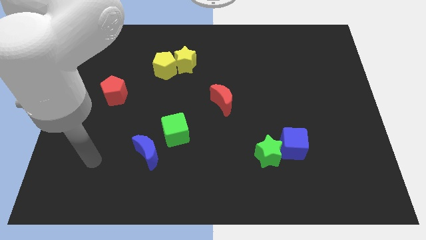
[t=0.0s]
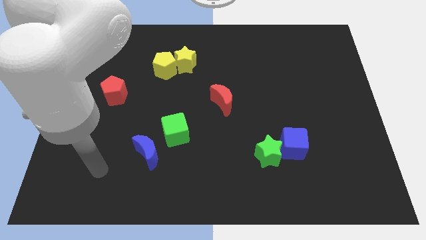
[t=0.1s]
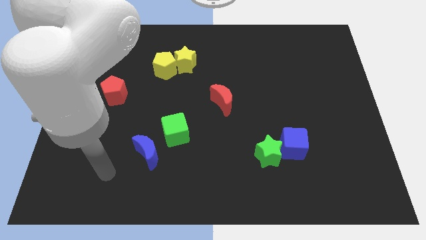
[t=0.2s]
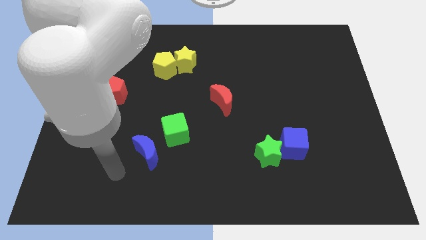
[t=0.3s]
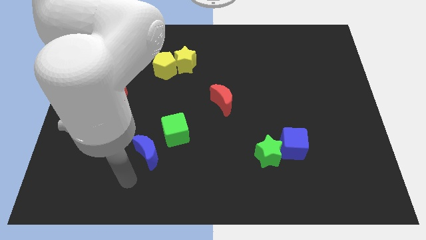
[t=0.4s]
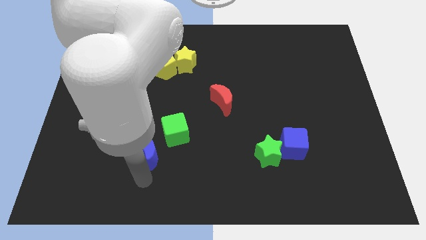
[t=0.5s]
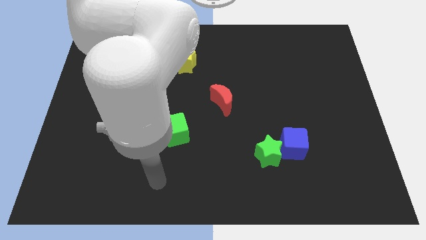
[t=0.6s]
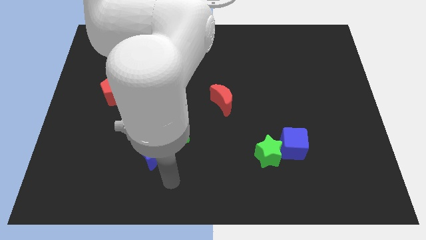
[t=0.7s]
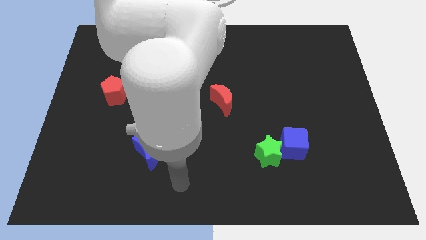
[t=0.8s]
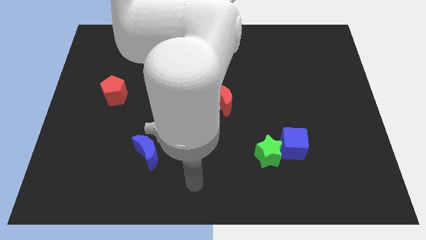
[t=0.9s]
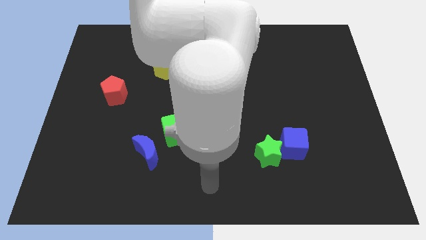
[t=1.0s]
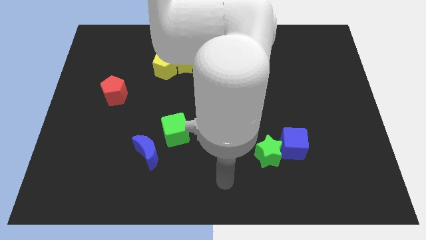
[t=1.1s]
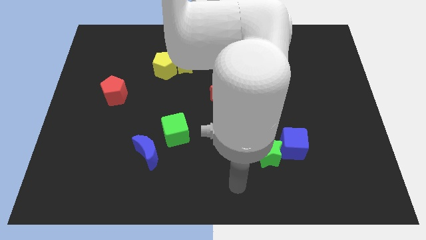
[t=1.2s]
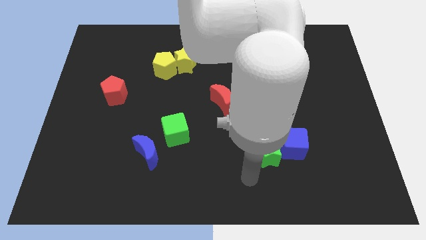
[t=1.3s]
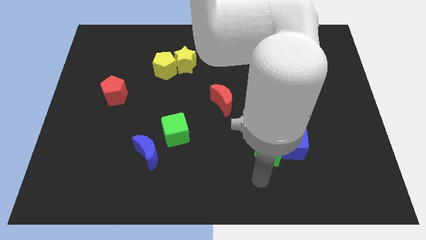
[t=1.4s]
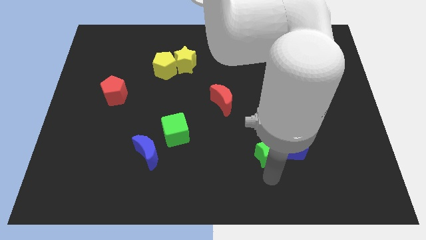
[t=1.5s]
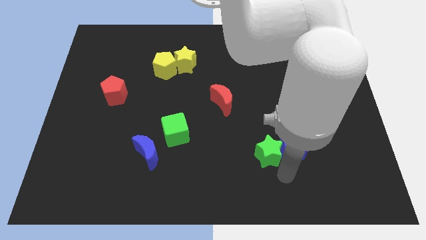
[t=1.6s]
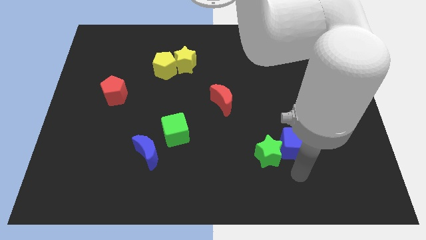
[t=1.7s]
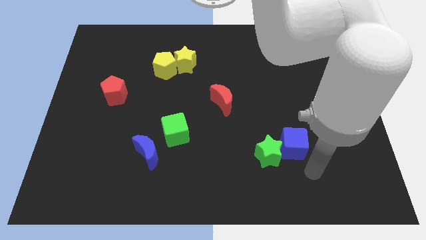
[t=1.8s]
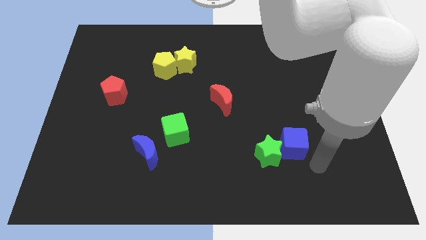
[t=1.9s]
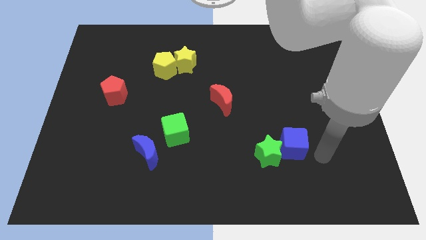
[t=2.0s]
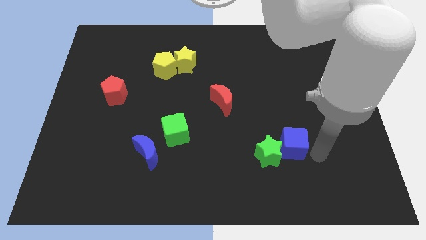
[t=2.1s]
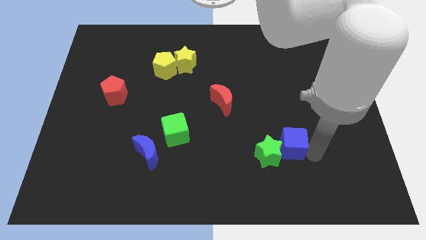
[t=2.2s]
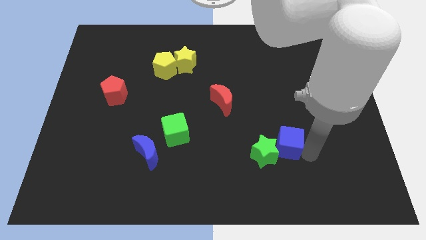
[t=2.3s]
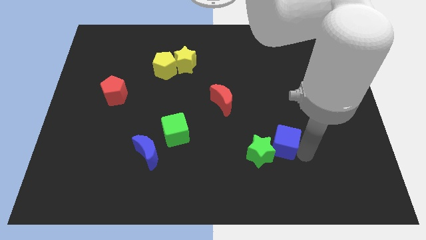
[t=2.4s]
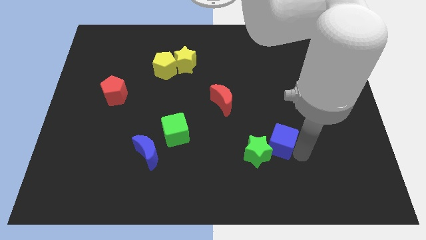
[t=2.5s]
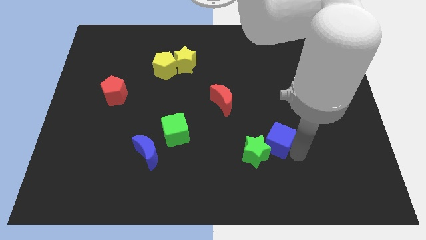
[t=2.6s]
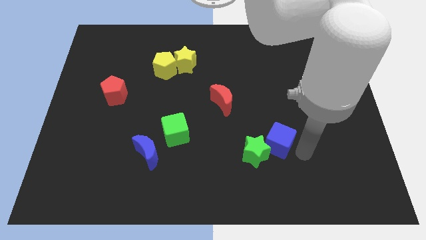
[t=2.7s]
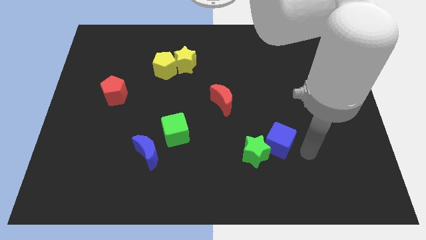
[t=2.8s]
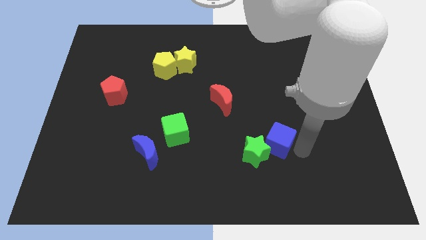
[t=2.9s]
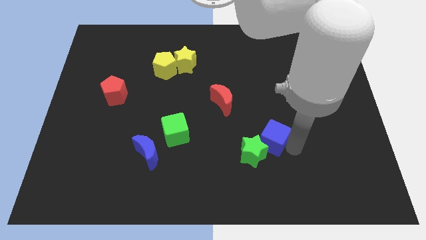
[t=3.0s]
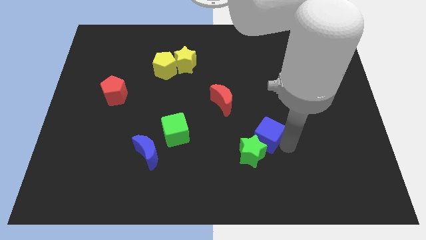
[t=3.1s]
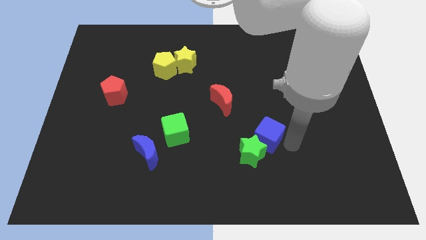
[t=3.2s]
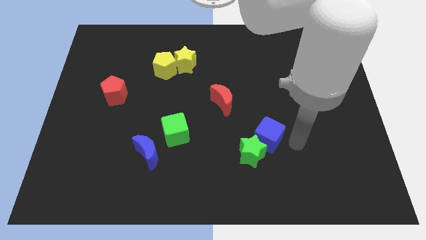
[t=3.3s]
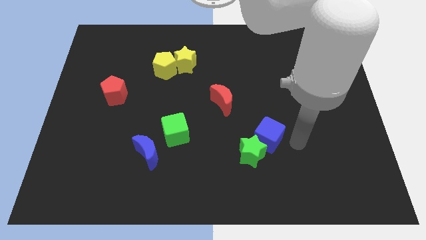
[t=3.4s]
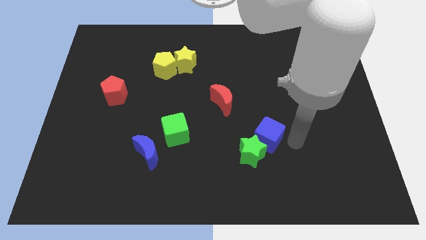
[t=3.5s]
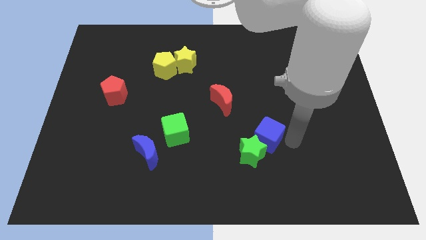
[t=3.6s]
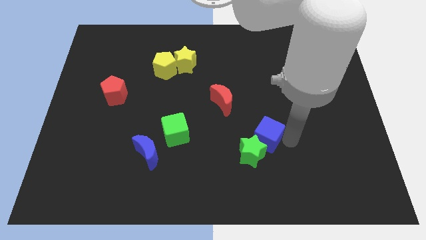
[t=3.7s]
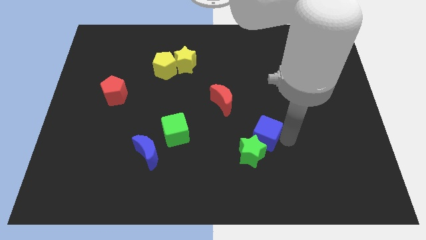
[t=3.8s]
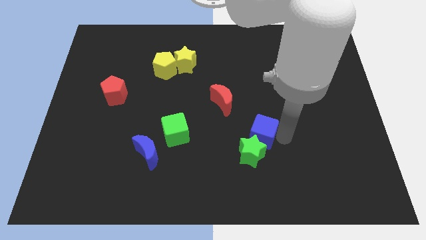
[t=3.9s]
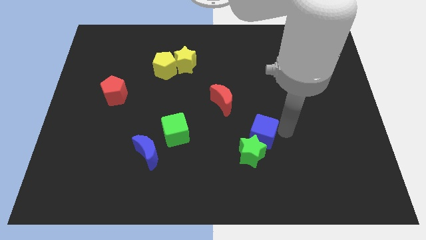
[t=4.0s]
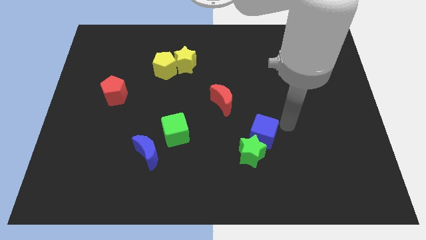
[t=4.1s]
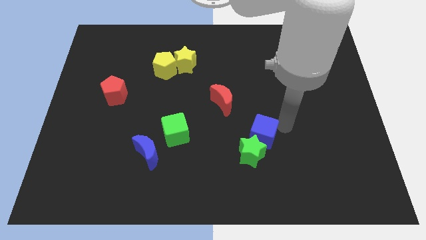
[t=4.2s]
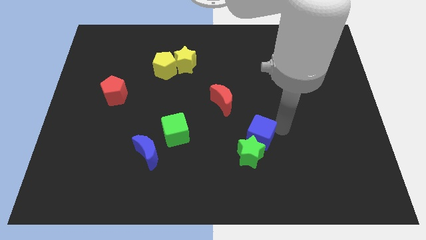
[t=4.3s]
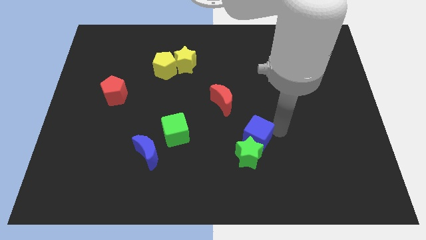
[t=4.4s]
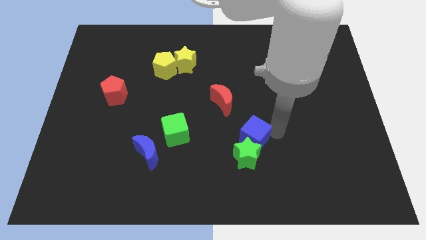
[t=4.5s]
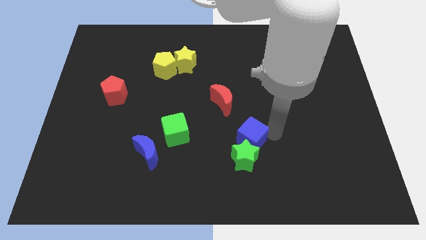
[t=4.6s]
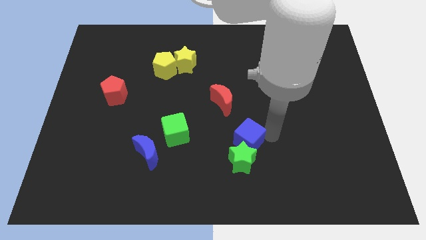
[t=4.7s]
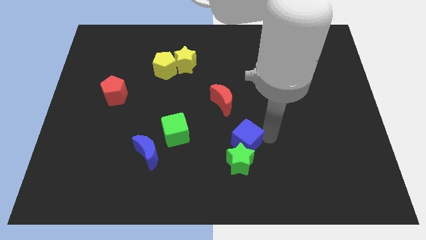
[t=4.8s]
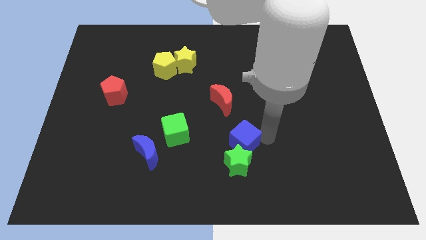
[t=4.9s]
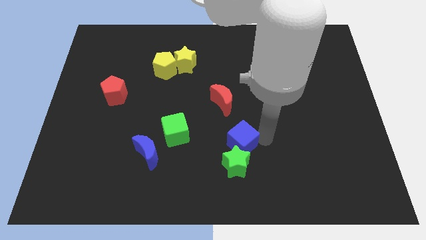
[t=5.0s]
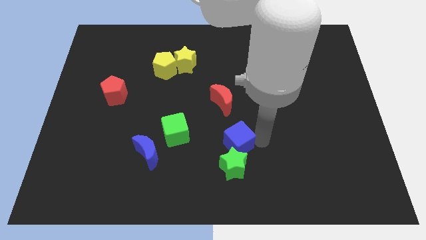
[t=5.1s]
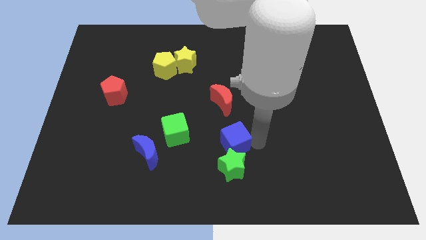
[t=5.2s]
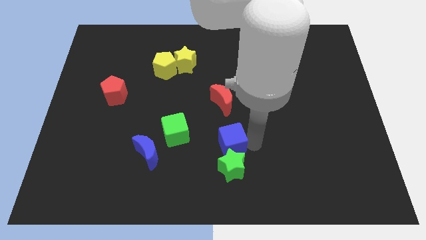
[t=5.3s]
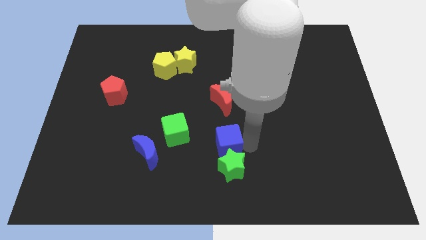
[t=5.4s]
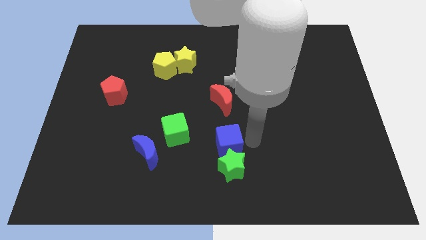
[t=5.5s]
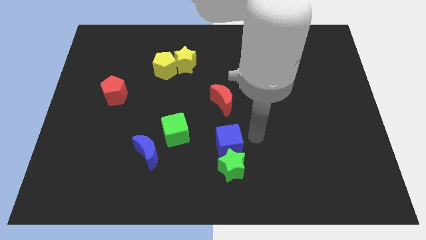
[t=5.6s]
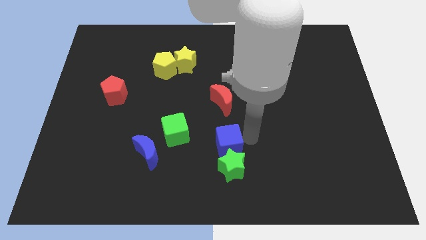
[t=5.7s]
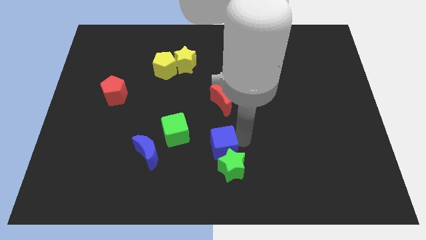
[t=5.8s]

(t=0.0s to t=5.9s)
push the blue cube to the right of the blue moon
